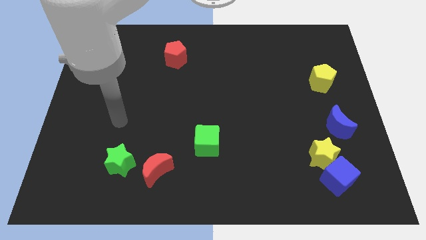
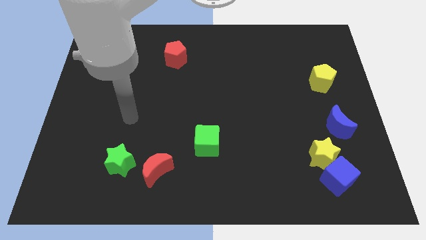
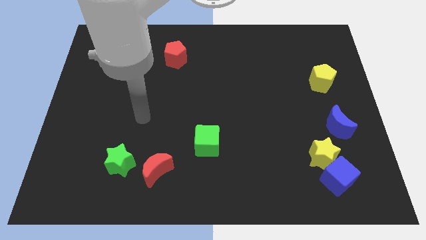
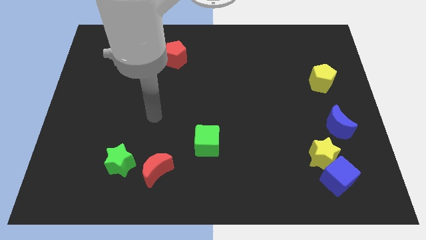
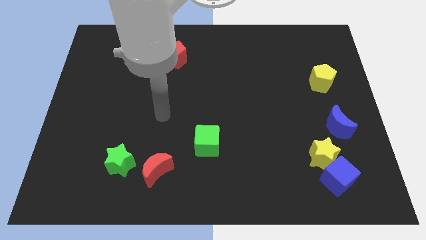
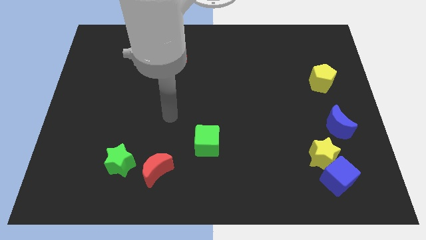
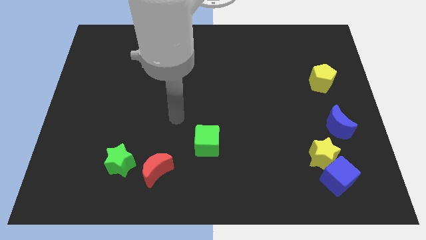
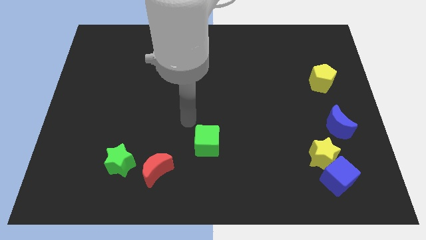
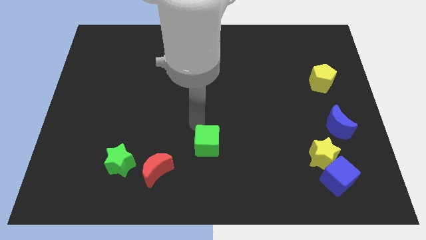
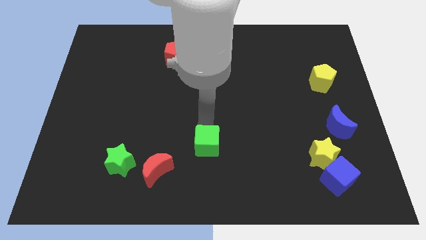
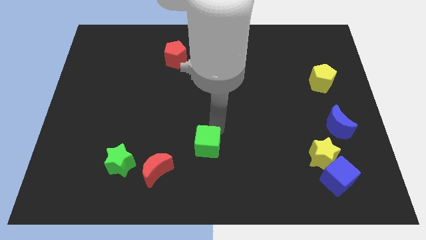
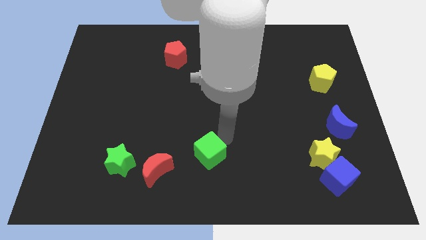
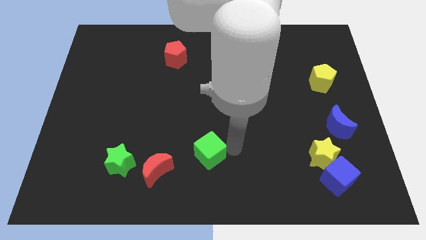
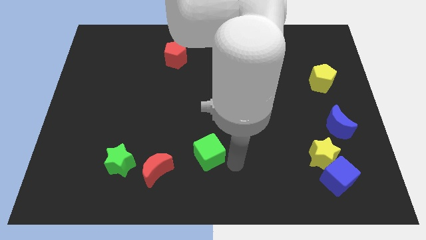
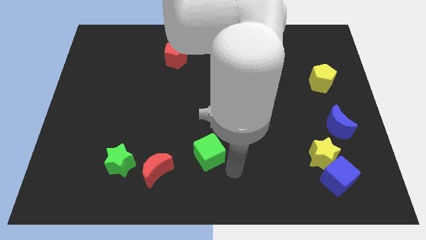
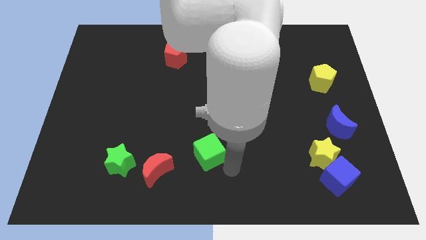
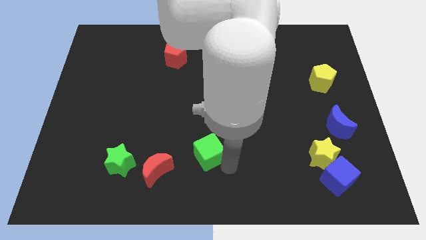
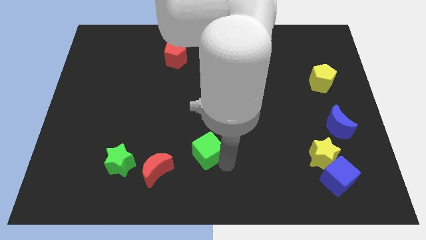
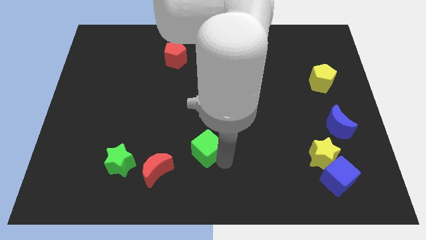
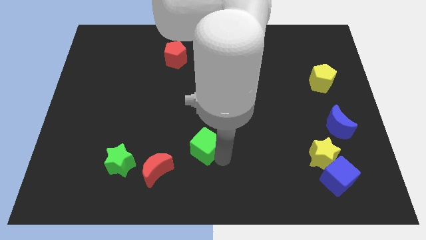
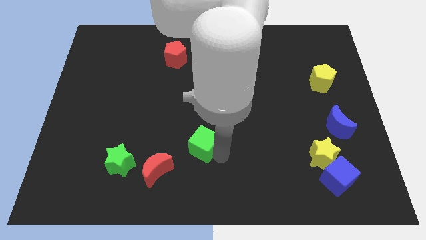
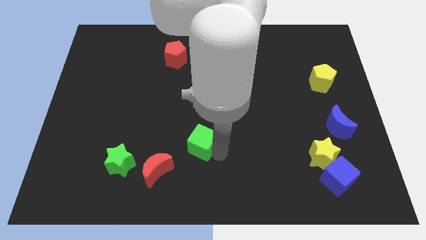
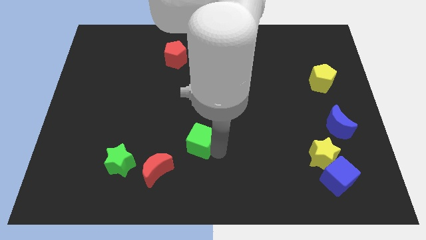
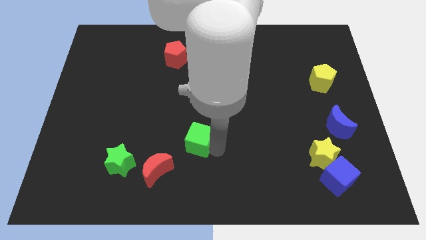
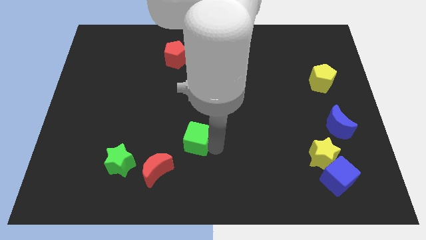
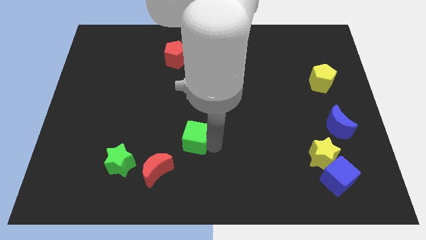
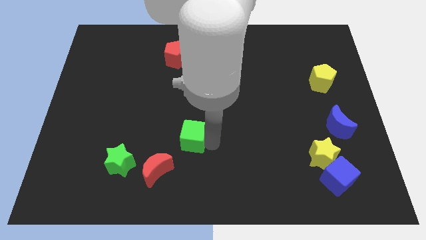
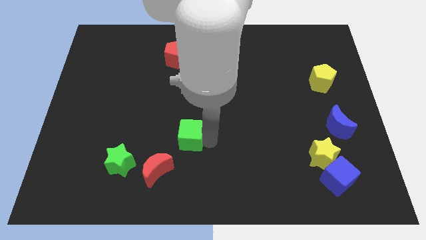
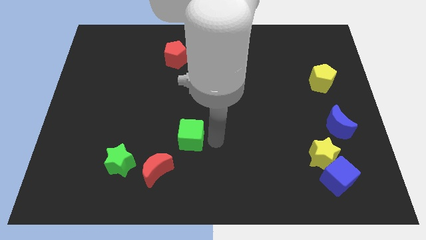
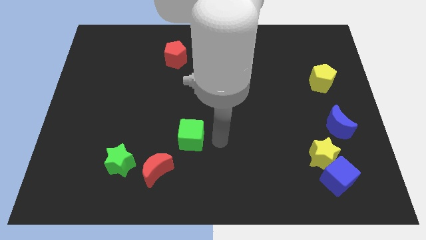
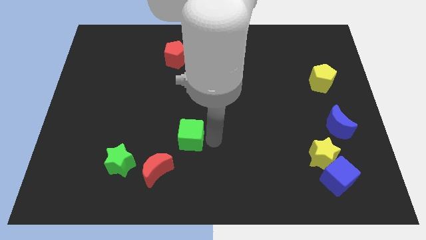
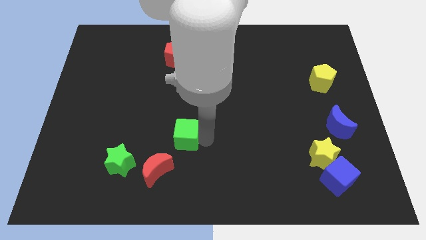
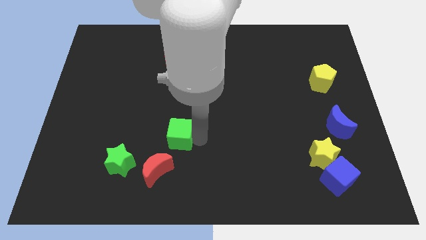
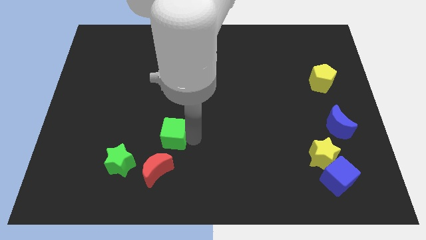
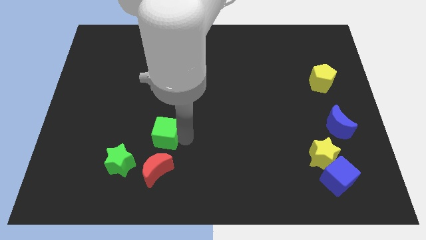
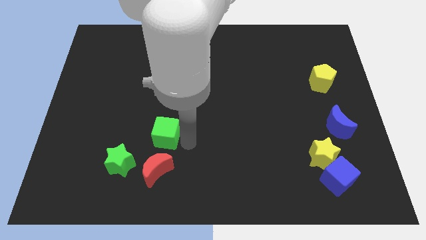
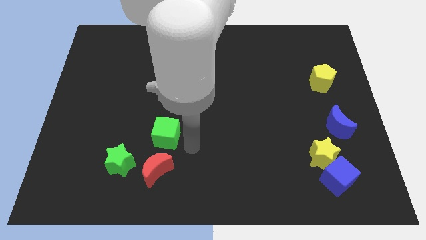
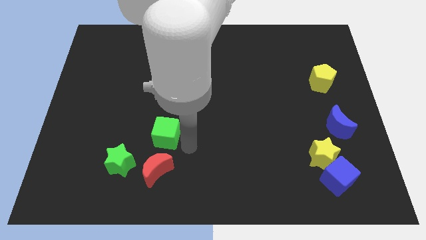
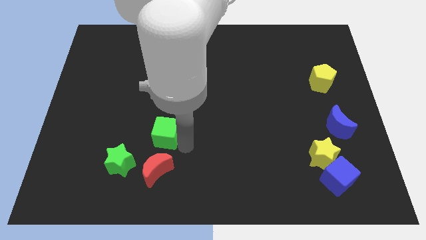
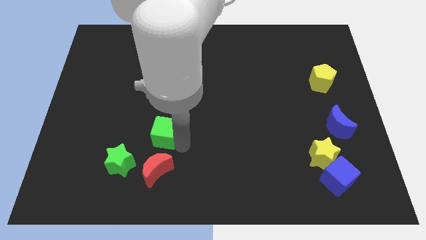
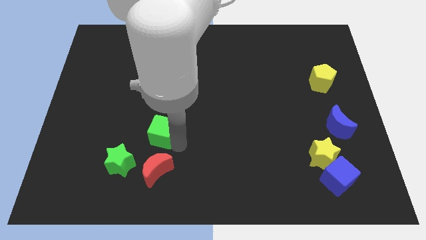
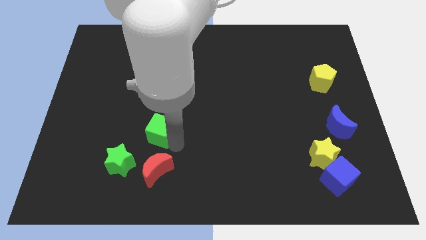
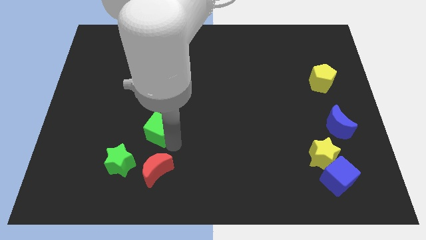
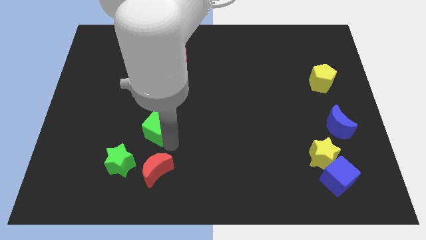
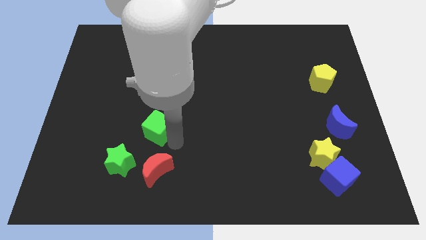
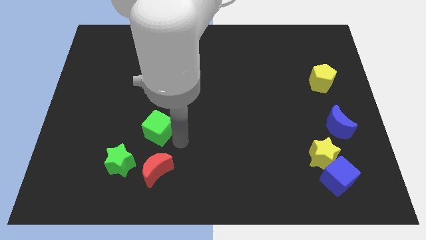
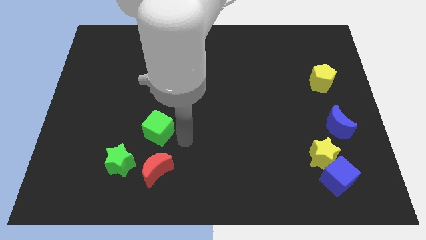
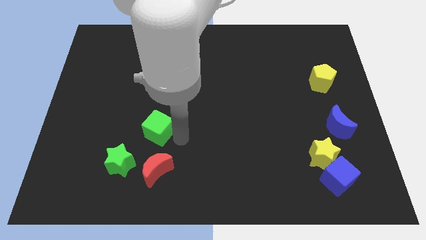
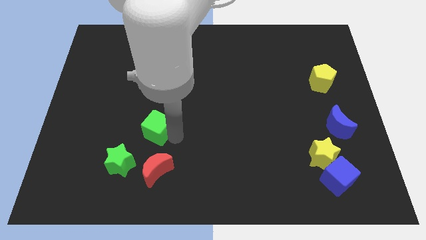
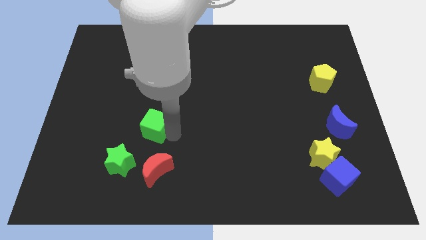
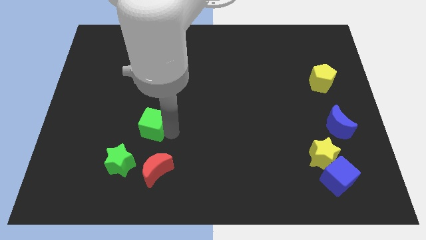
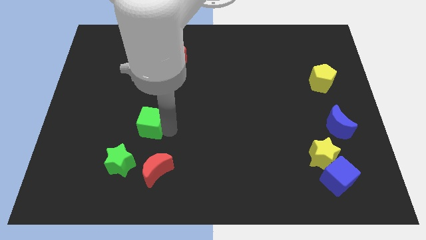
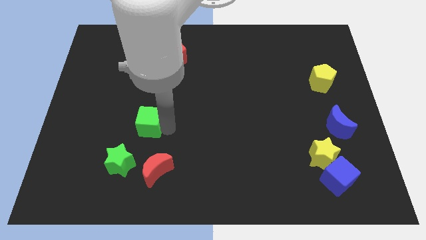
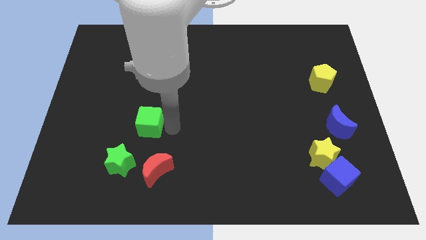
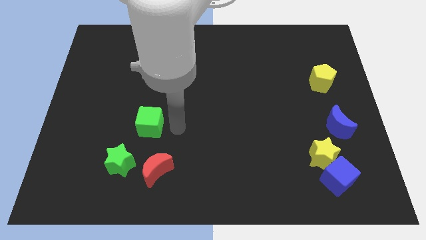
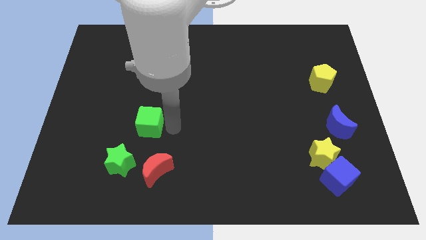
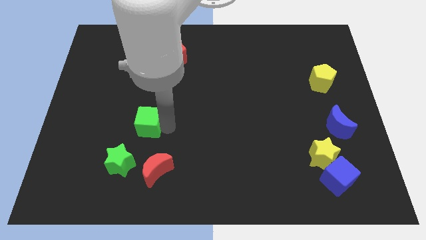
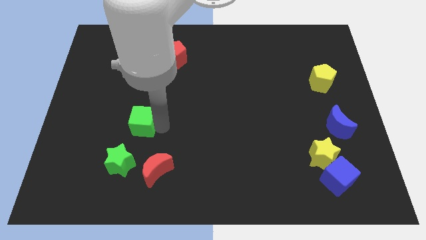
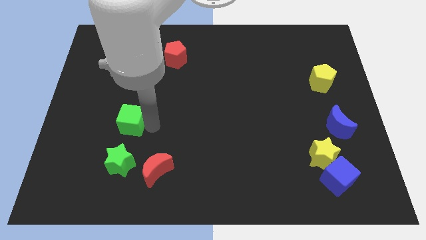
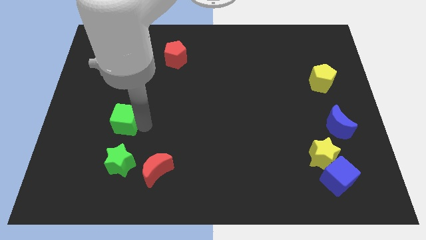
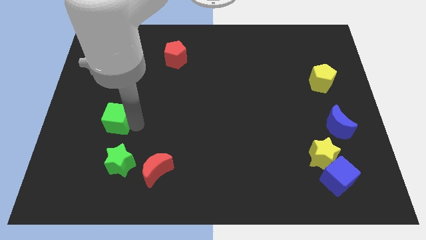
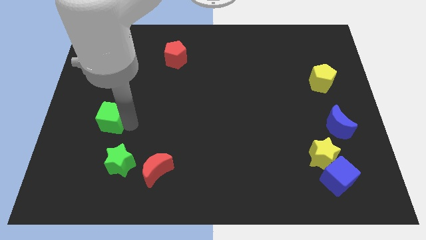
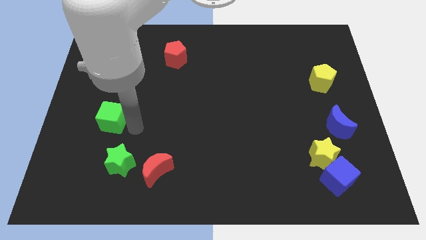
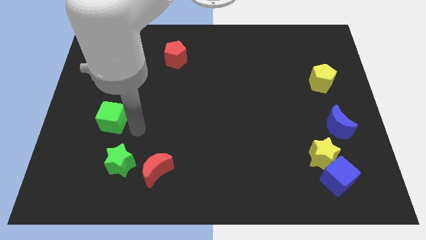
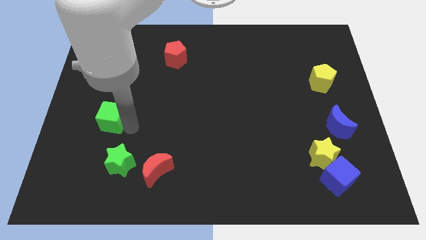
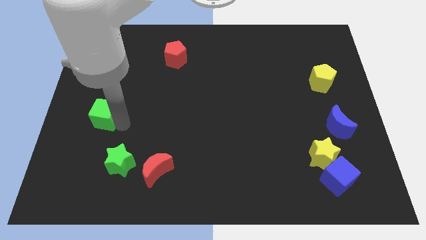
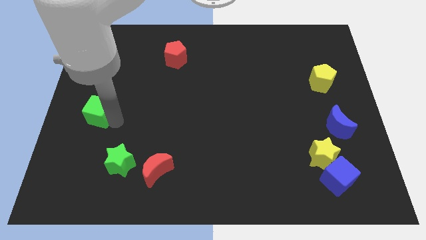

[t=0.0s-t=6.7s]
slide the green cube to the left side of the board
